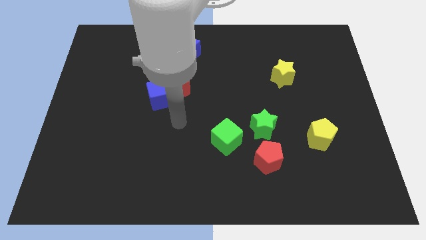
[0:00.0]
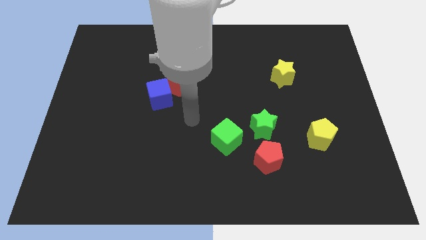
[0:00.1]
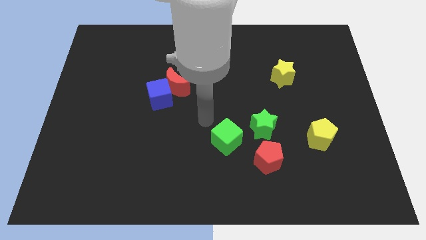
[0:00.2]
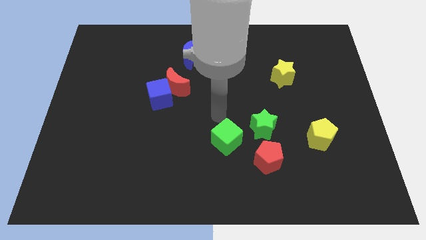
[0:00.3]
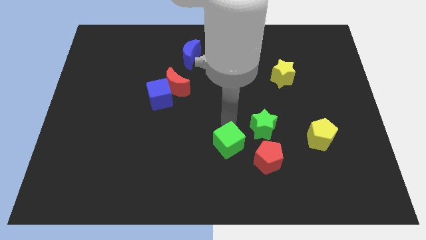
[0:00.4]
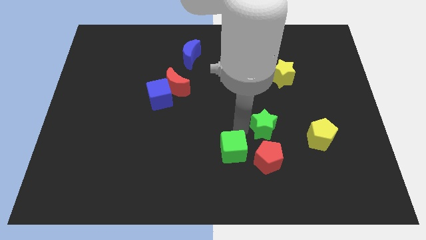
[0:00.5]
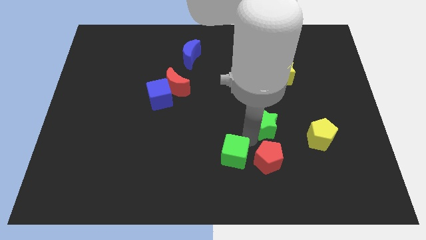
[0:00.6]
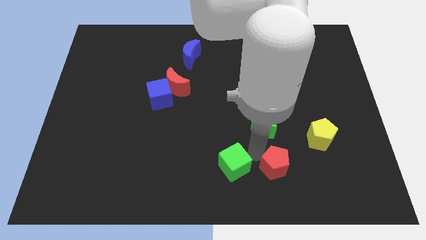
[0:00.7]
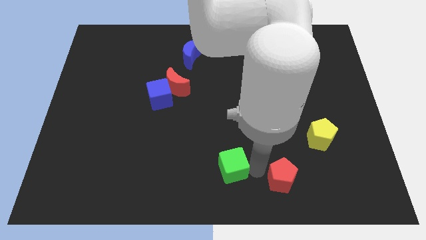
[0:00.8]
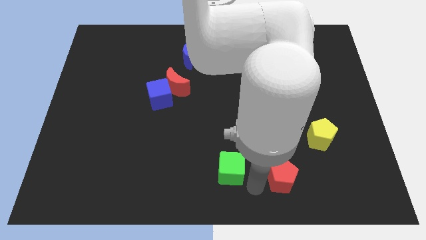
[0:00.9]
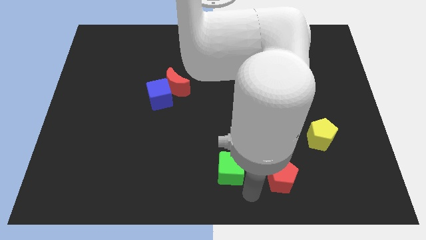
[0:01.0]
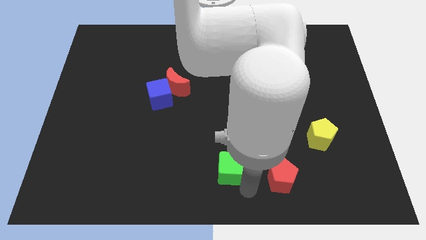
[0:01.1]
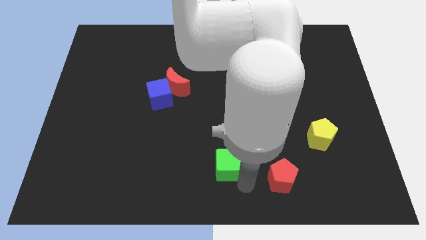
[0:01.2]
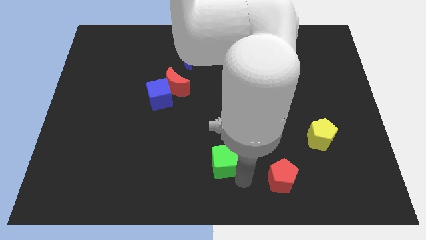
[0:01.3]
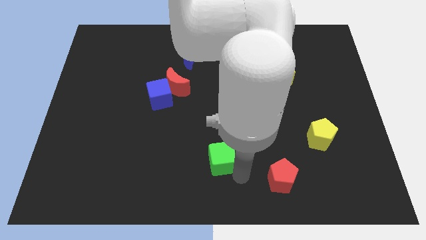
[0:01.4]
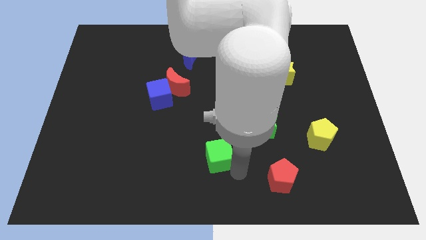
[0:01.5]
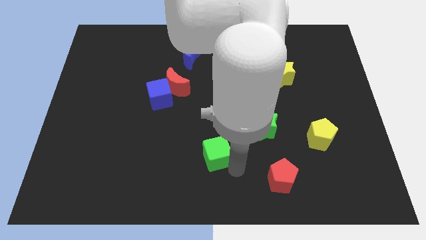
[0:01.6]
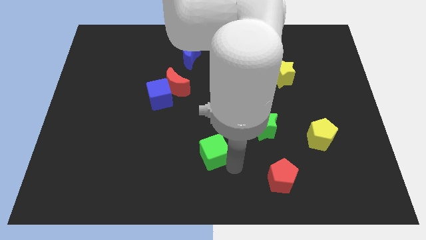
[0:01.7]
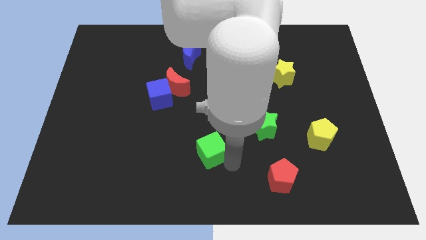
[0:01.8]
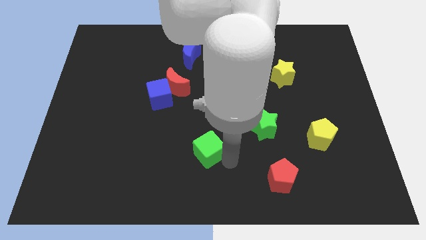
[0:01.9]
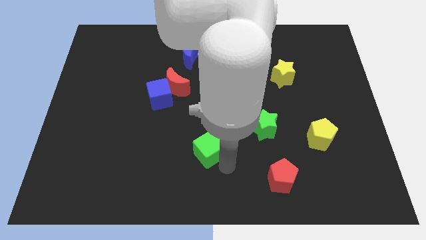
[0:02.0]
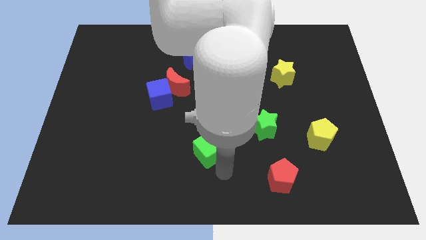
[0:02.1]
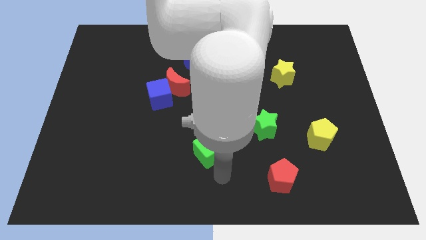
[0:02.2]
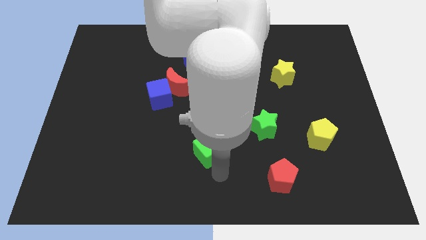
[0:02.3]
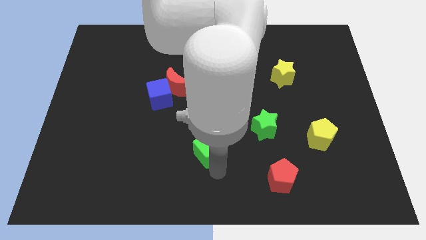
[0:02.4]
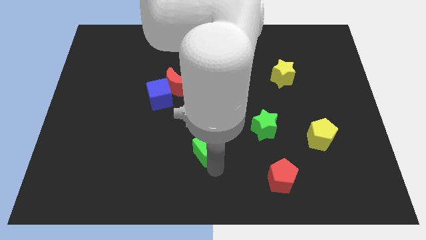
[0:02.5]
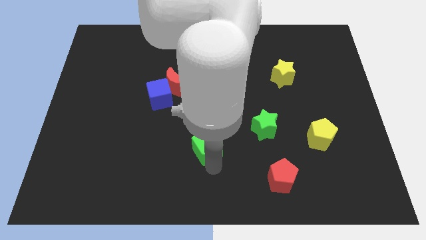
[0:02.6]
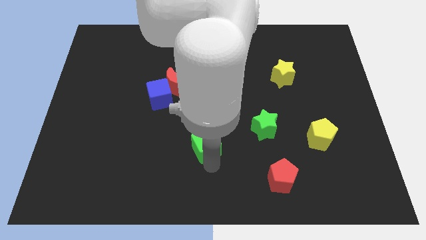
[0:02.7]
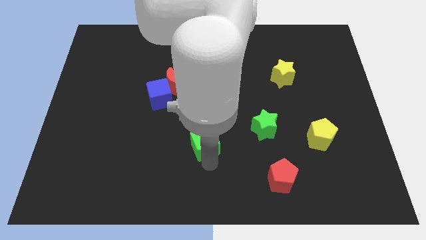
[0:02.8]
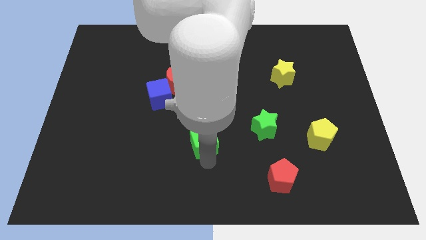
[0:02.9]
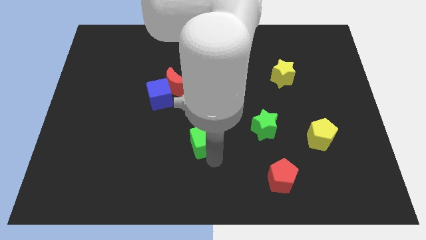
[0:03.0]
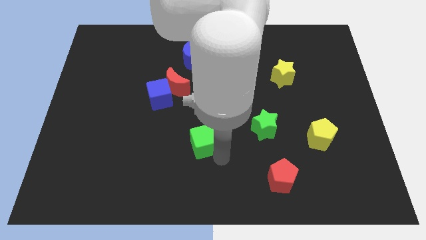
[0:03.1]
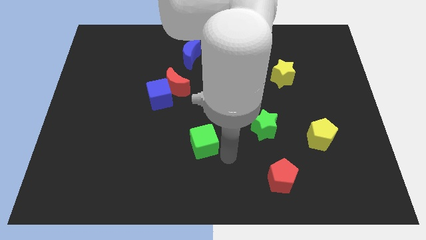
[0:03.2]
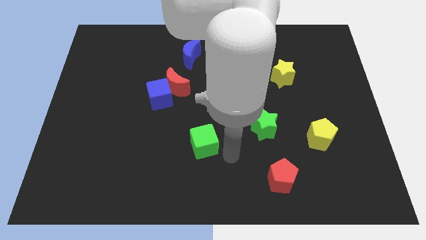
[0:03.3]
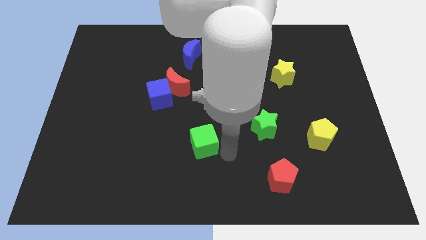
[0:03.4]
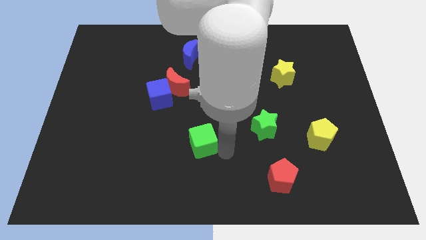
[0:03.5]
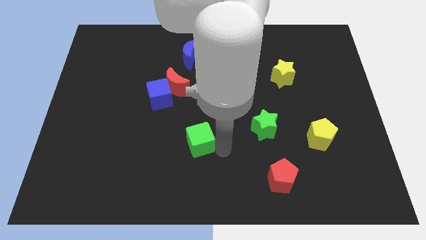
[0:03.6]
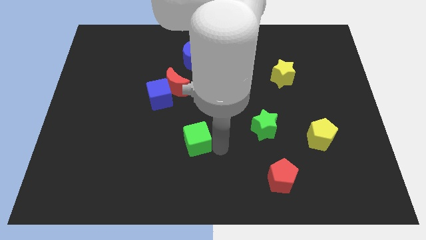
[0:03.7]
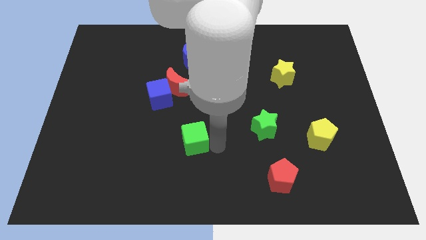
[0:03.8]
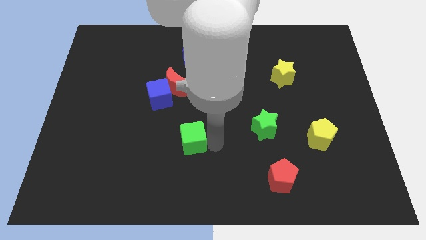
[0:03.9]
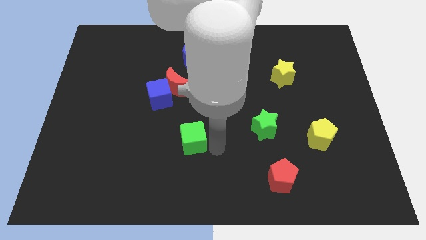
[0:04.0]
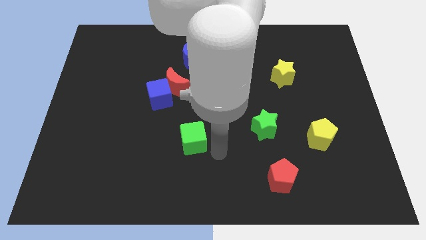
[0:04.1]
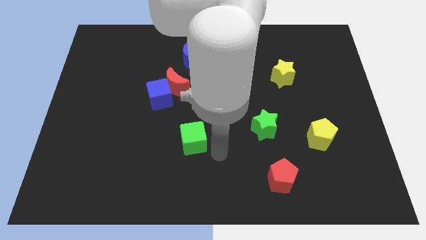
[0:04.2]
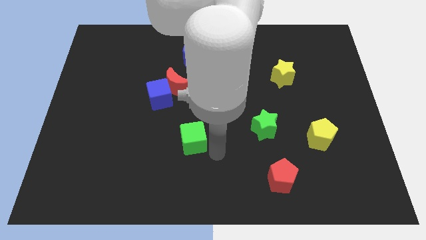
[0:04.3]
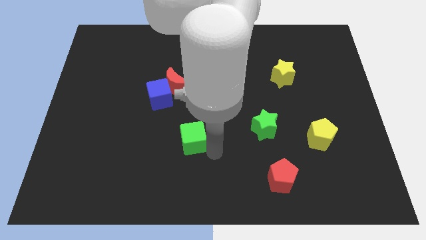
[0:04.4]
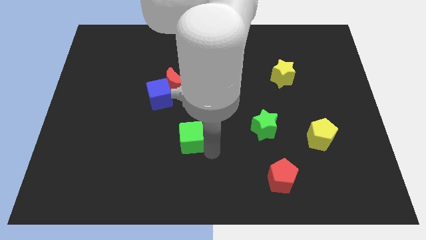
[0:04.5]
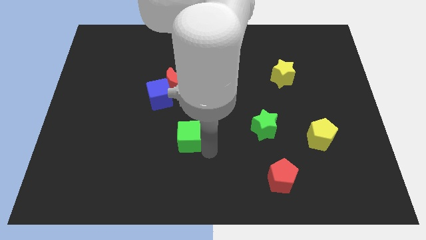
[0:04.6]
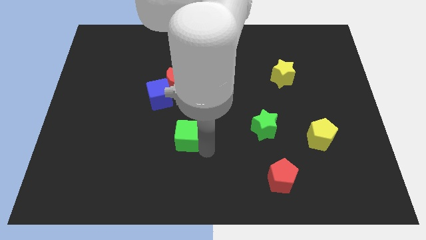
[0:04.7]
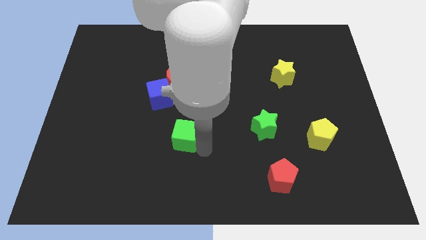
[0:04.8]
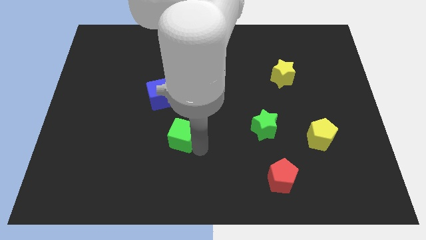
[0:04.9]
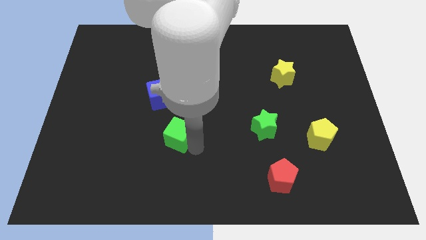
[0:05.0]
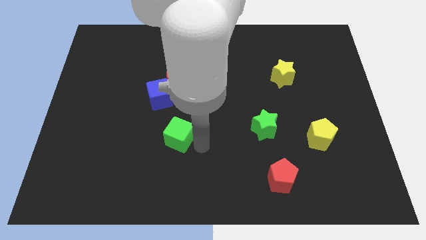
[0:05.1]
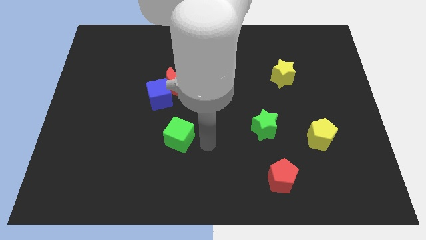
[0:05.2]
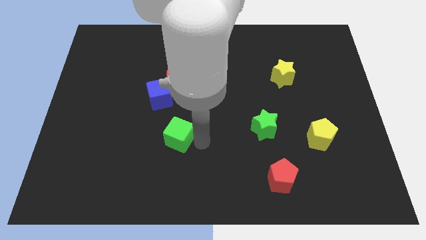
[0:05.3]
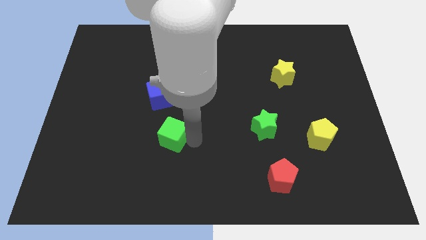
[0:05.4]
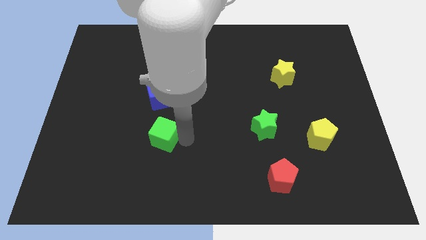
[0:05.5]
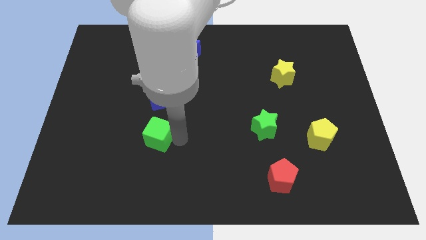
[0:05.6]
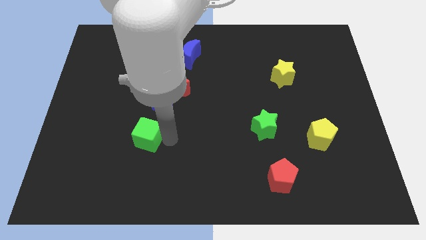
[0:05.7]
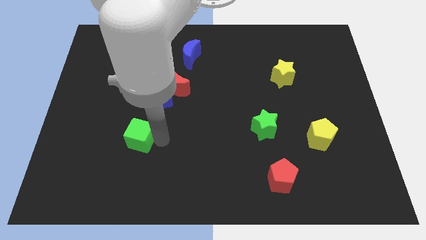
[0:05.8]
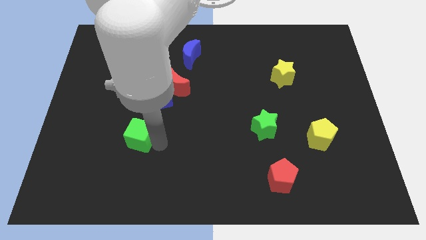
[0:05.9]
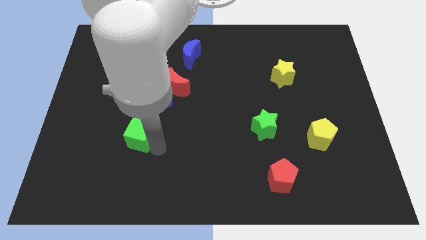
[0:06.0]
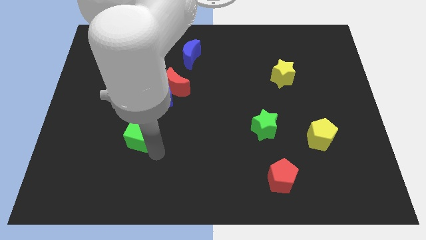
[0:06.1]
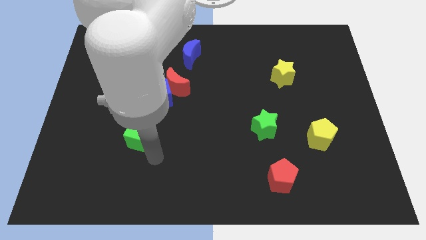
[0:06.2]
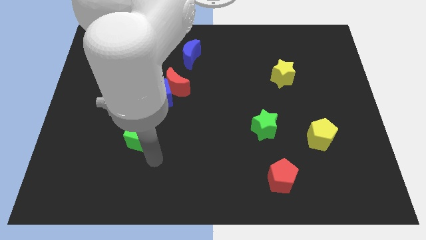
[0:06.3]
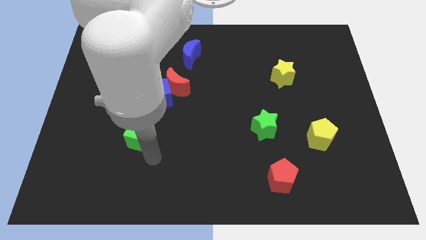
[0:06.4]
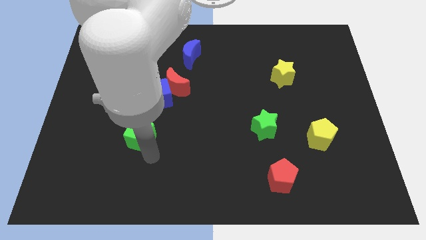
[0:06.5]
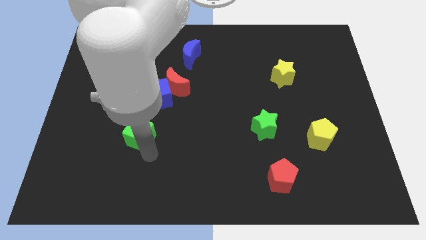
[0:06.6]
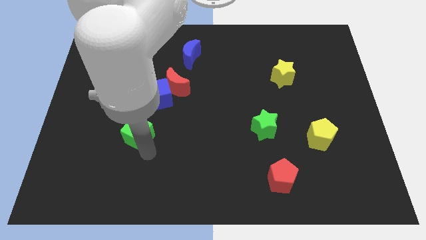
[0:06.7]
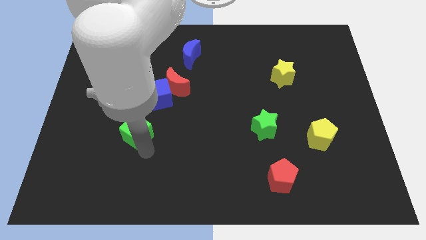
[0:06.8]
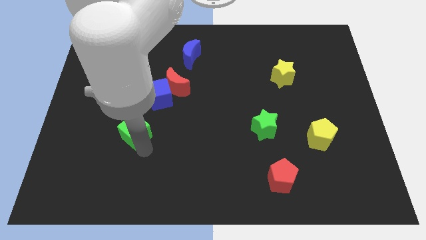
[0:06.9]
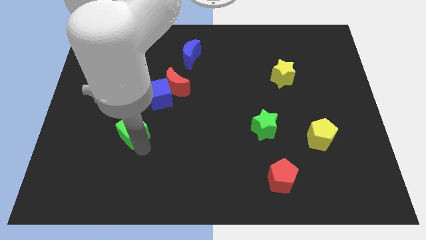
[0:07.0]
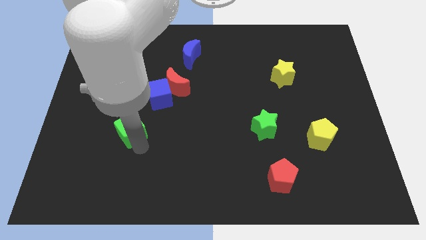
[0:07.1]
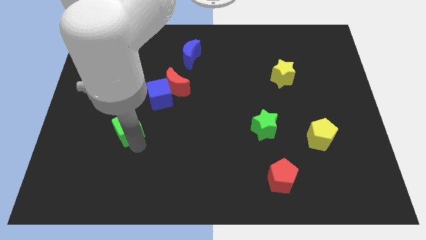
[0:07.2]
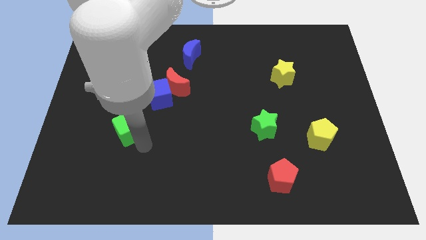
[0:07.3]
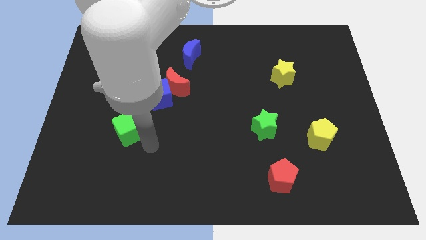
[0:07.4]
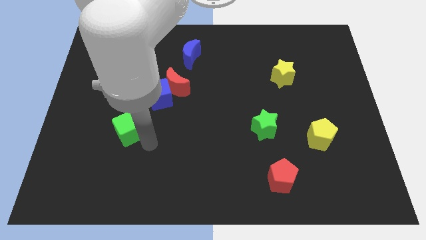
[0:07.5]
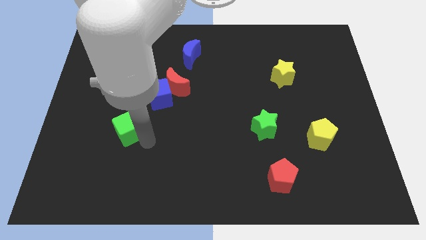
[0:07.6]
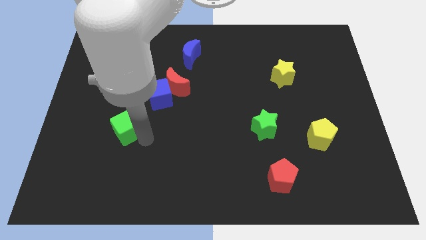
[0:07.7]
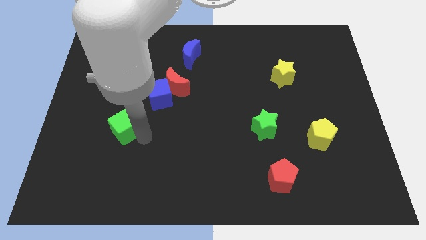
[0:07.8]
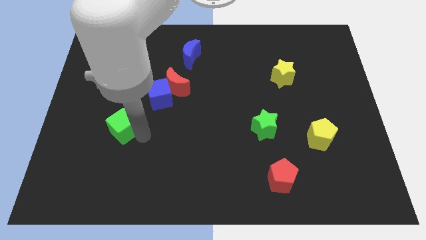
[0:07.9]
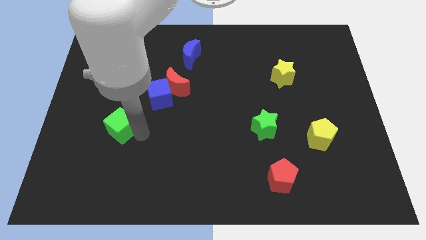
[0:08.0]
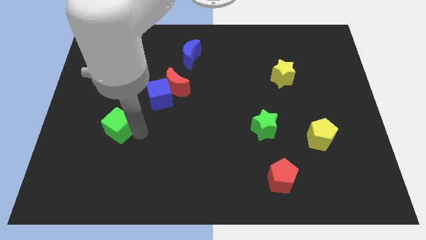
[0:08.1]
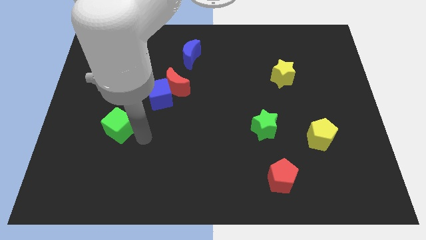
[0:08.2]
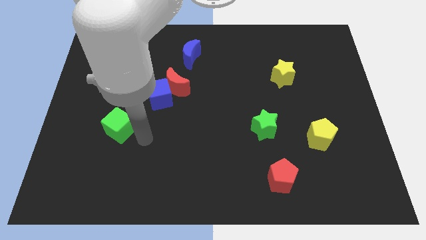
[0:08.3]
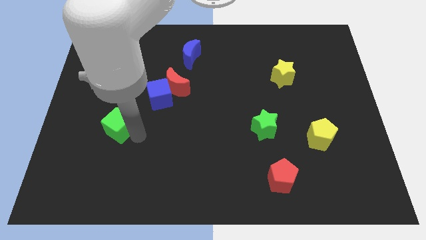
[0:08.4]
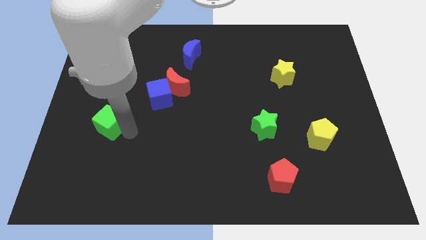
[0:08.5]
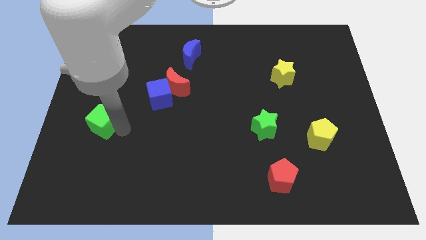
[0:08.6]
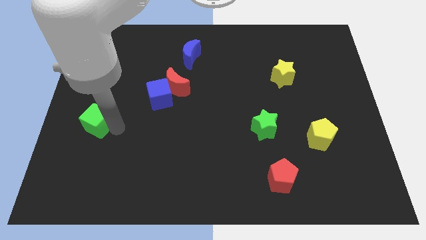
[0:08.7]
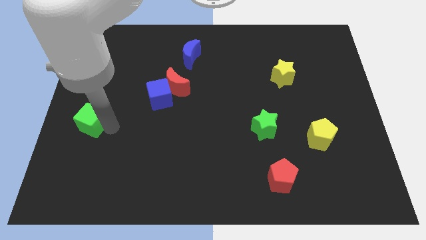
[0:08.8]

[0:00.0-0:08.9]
push the green cube to the left side
